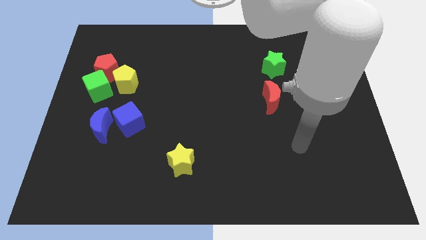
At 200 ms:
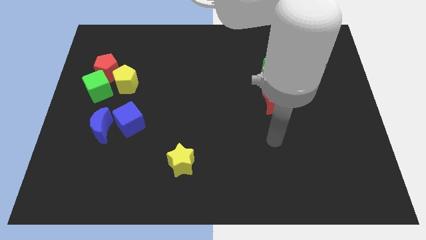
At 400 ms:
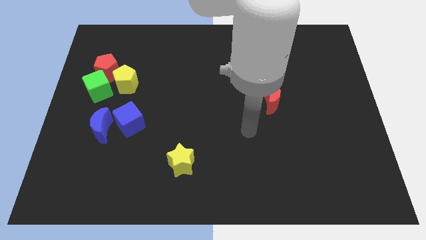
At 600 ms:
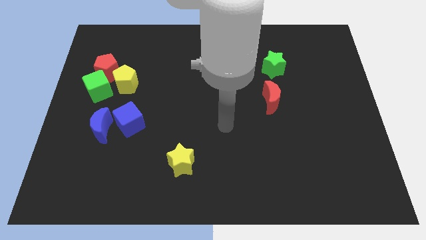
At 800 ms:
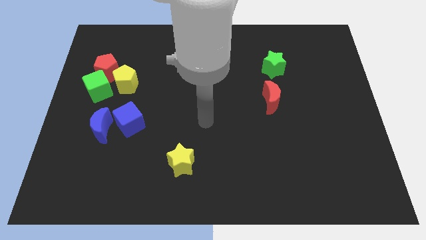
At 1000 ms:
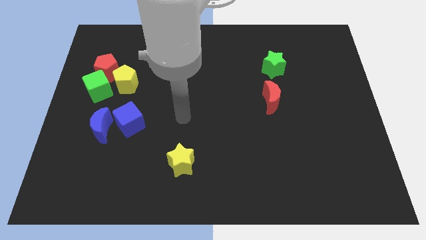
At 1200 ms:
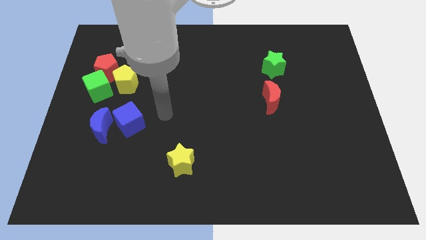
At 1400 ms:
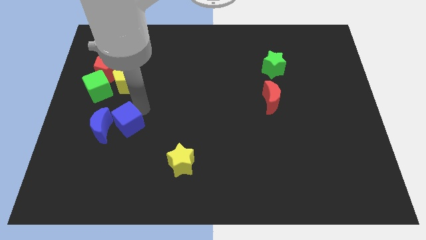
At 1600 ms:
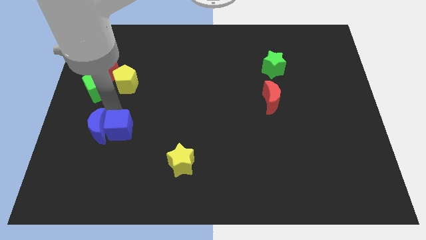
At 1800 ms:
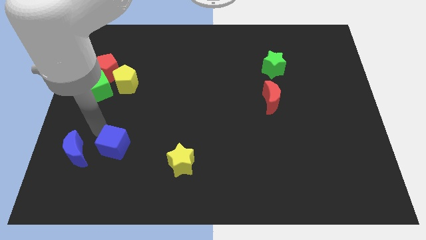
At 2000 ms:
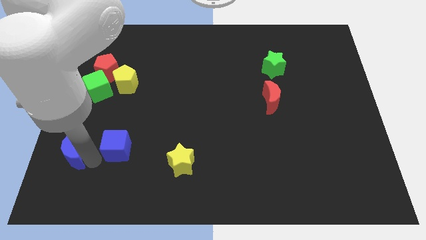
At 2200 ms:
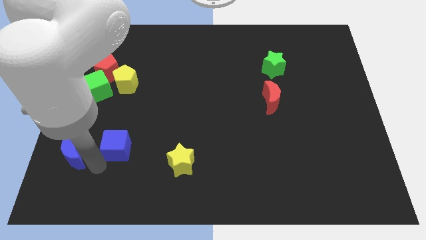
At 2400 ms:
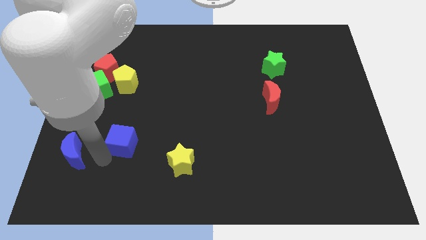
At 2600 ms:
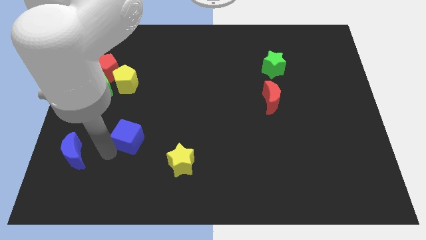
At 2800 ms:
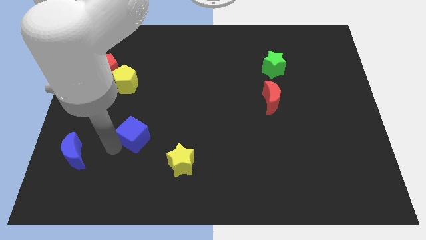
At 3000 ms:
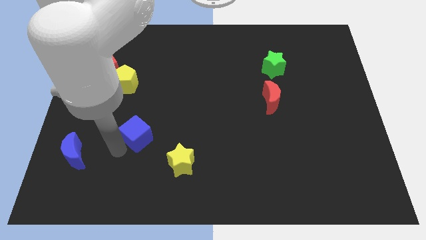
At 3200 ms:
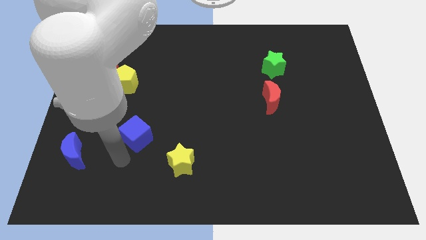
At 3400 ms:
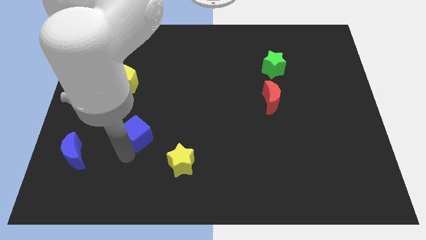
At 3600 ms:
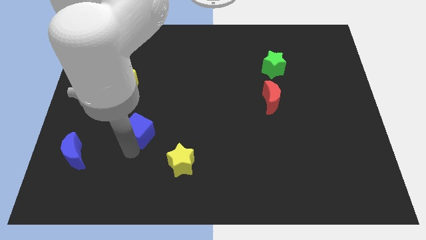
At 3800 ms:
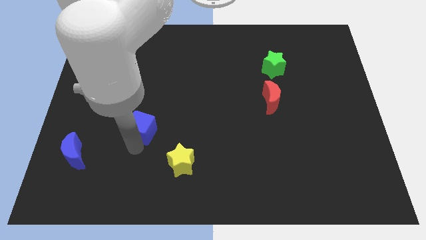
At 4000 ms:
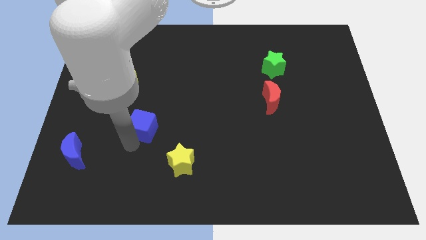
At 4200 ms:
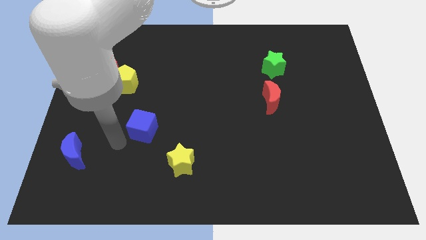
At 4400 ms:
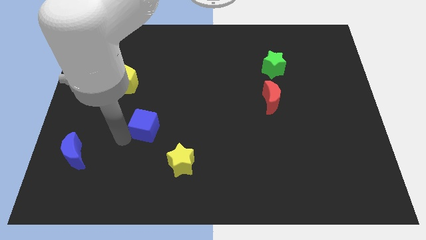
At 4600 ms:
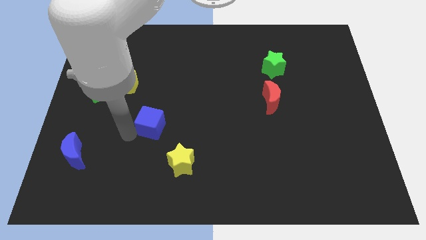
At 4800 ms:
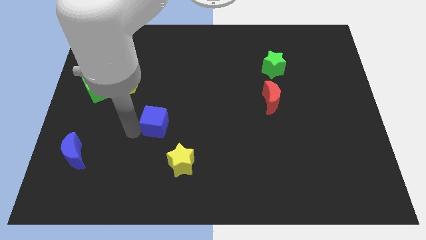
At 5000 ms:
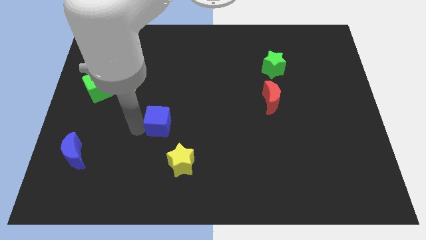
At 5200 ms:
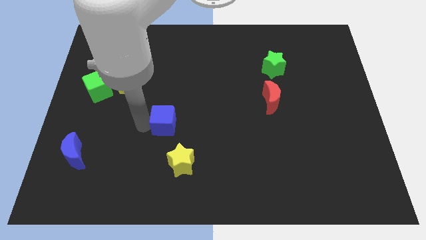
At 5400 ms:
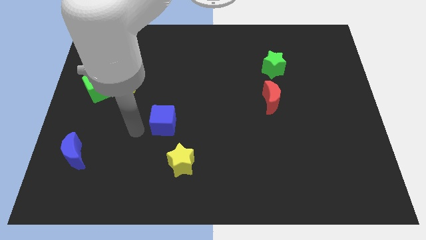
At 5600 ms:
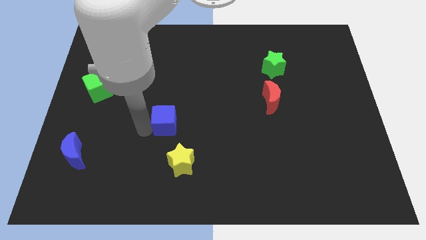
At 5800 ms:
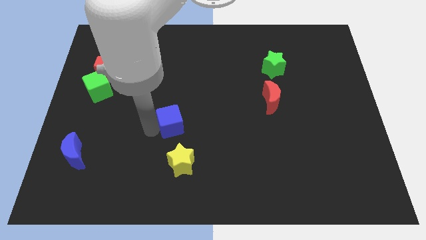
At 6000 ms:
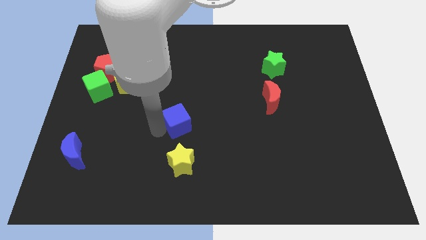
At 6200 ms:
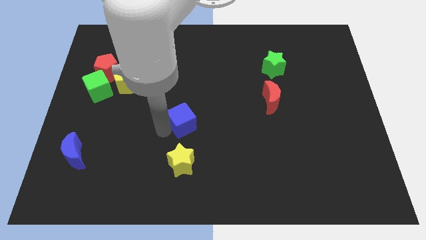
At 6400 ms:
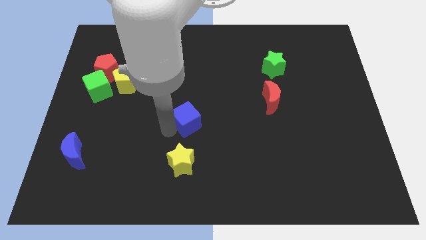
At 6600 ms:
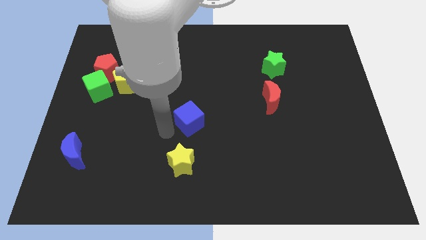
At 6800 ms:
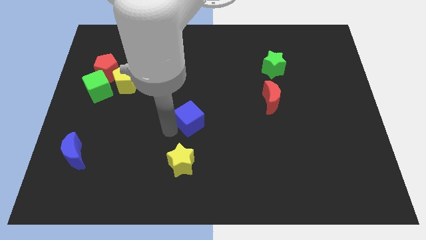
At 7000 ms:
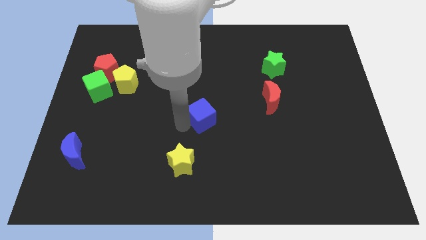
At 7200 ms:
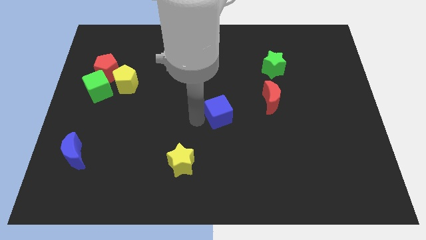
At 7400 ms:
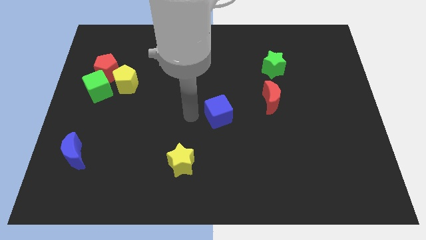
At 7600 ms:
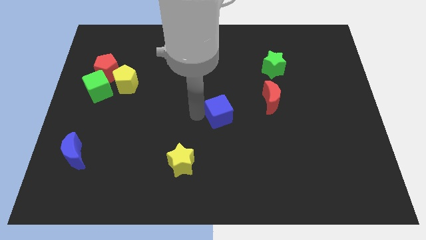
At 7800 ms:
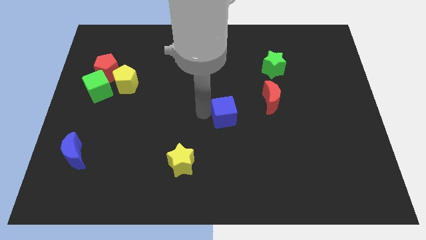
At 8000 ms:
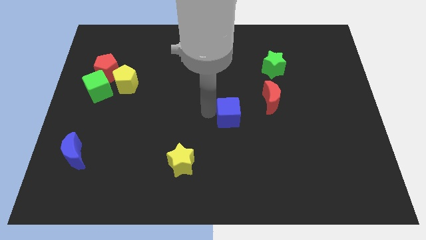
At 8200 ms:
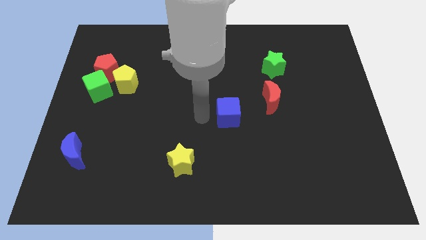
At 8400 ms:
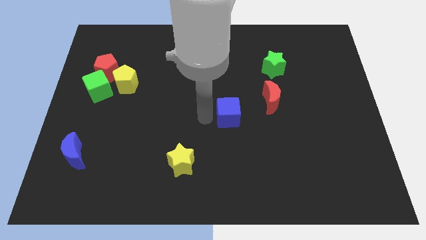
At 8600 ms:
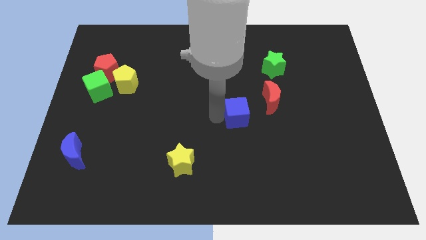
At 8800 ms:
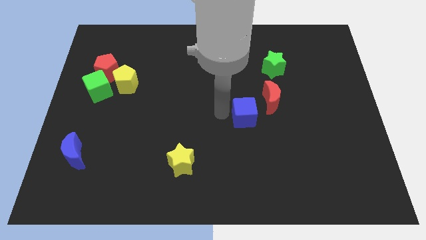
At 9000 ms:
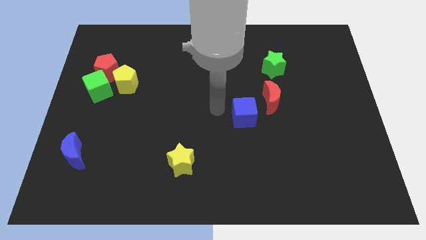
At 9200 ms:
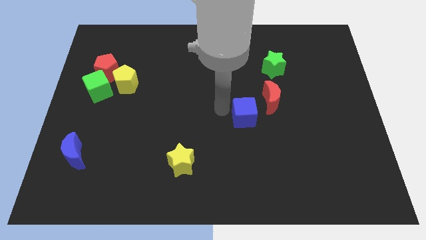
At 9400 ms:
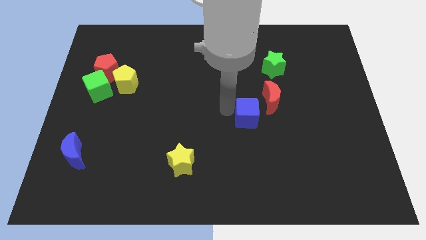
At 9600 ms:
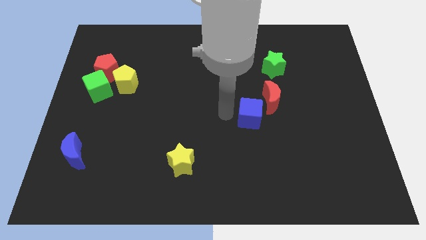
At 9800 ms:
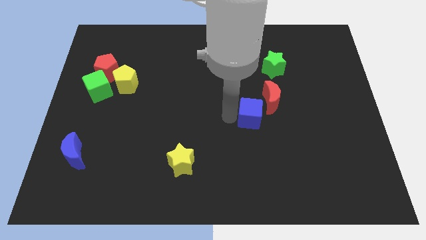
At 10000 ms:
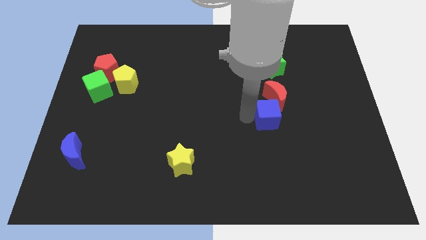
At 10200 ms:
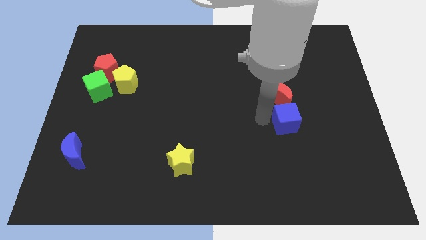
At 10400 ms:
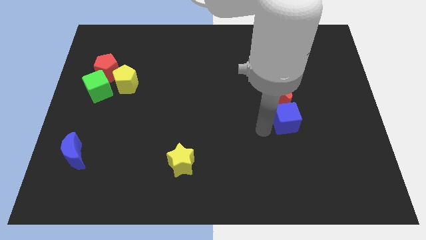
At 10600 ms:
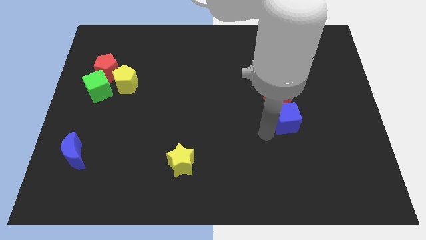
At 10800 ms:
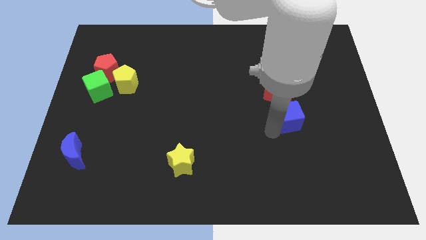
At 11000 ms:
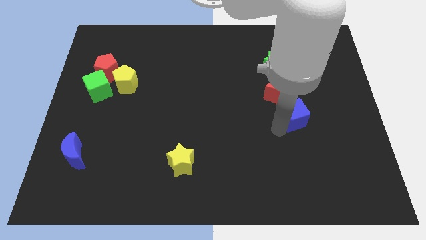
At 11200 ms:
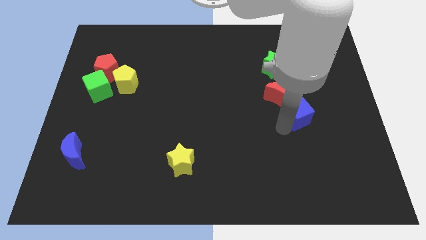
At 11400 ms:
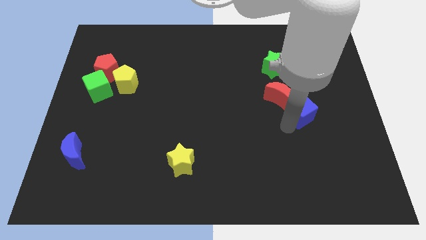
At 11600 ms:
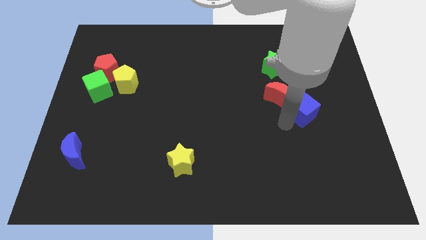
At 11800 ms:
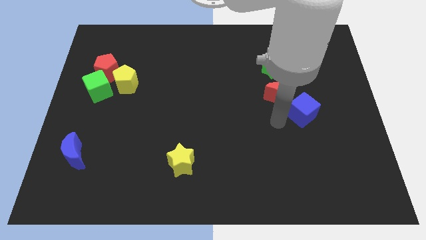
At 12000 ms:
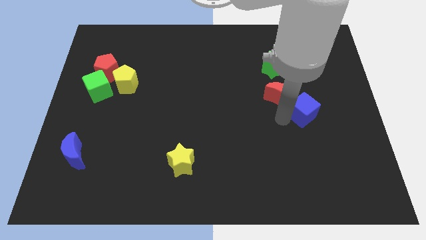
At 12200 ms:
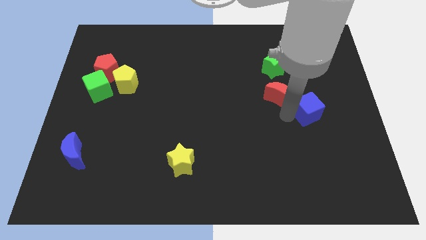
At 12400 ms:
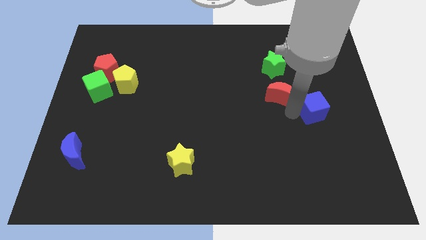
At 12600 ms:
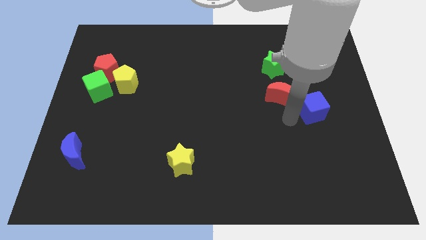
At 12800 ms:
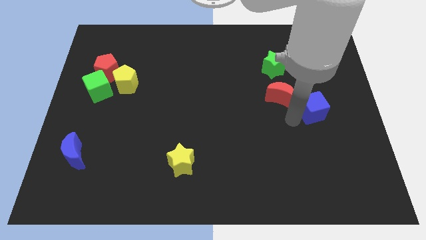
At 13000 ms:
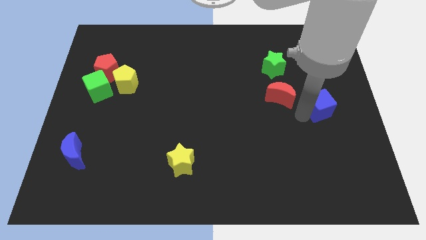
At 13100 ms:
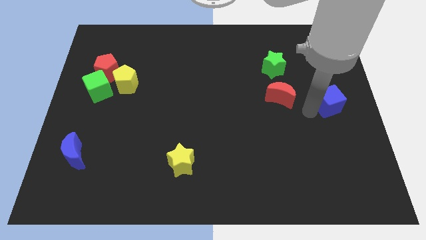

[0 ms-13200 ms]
push the blue cube to the center right

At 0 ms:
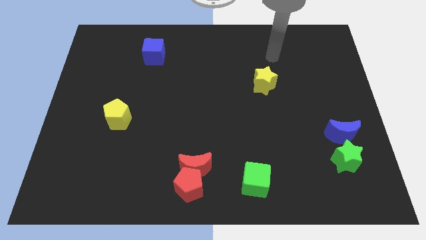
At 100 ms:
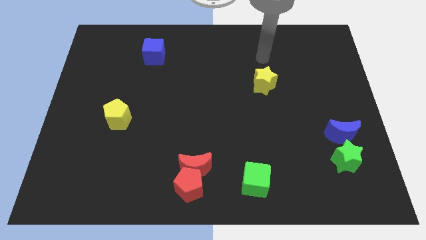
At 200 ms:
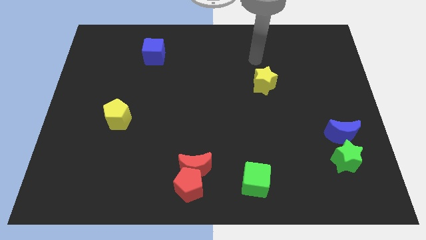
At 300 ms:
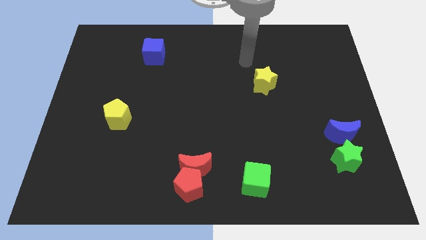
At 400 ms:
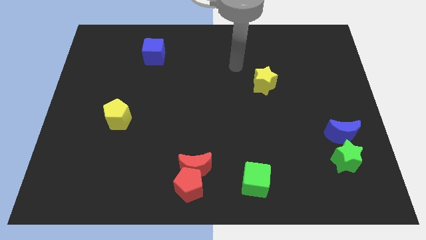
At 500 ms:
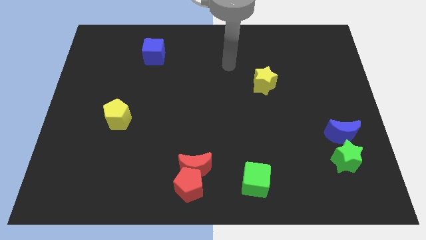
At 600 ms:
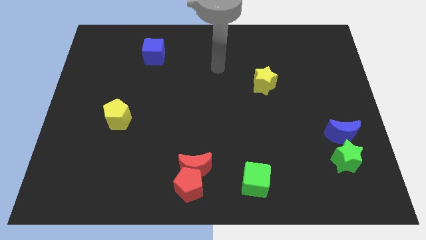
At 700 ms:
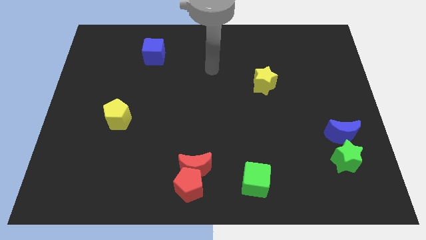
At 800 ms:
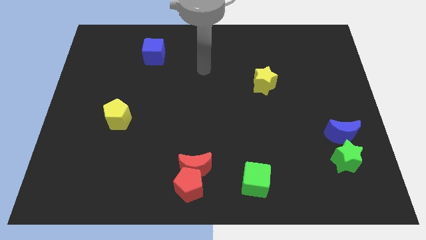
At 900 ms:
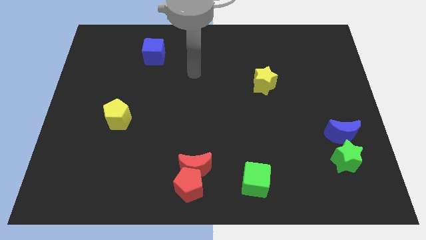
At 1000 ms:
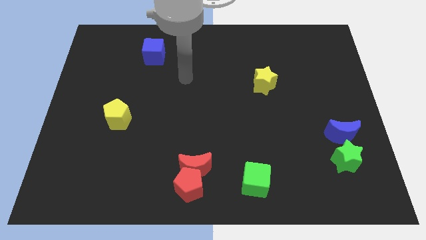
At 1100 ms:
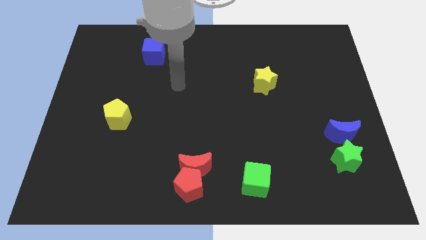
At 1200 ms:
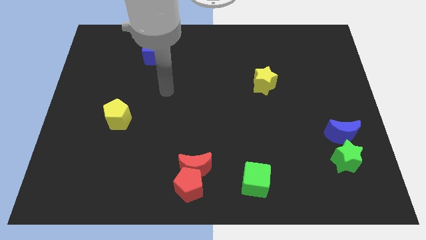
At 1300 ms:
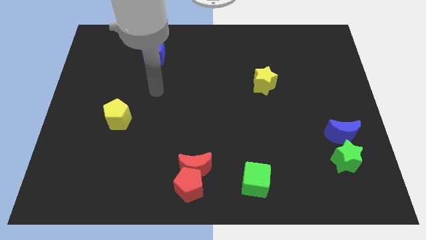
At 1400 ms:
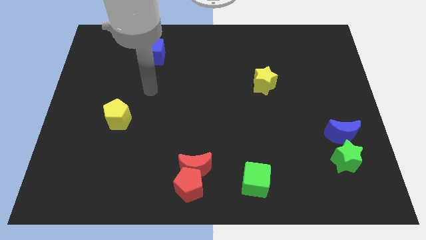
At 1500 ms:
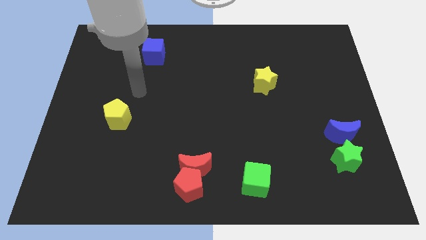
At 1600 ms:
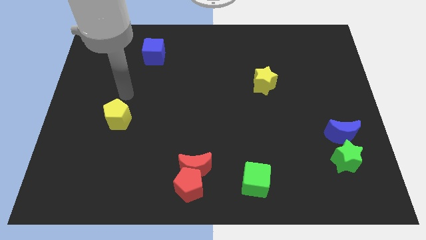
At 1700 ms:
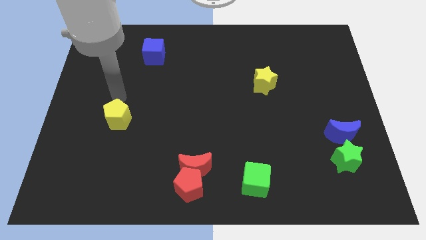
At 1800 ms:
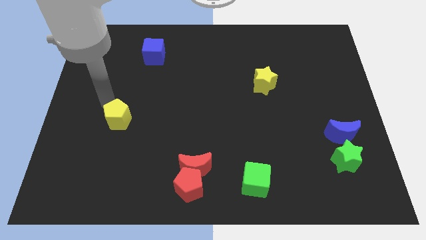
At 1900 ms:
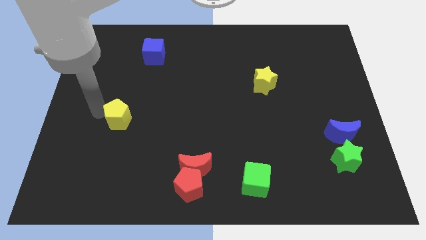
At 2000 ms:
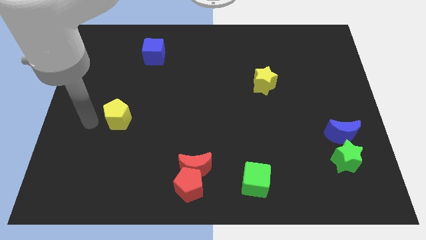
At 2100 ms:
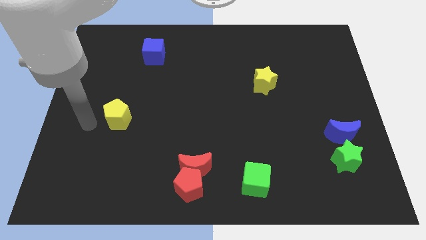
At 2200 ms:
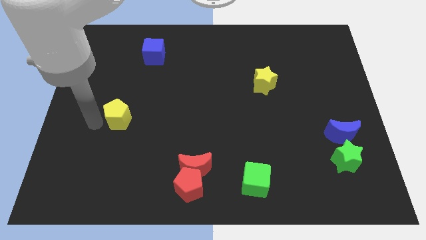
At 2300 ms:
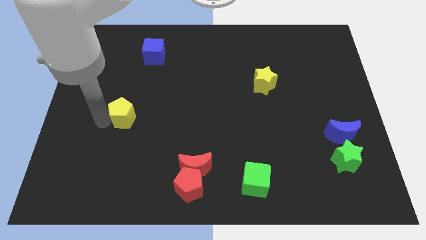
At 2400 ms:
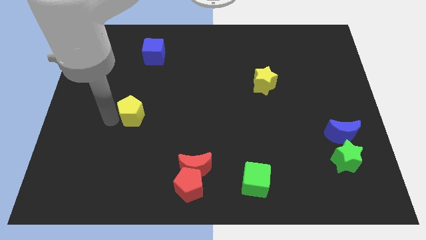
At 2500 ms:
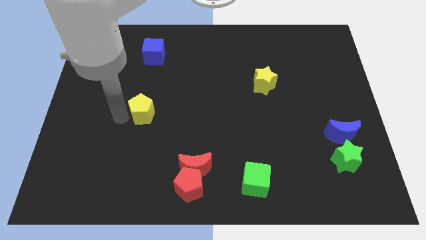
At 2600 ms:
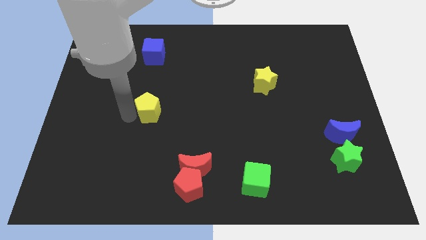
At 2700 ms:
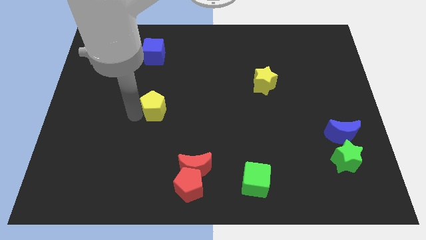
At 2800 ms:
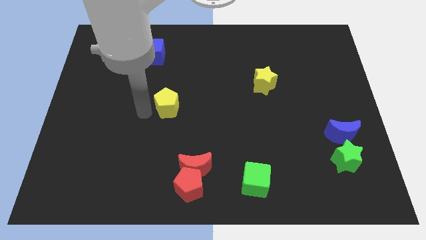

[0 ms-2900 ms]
put the yellow pentagon to the middle
